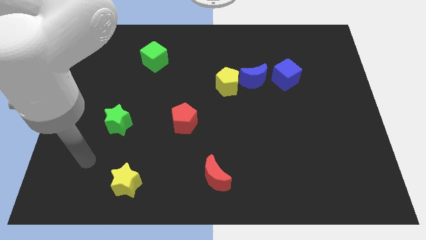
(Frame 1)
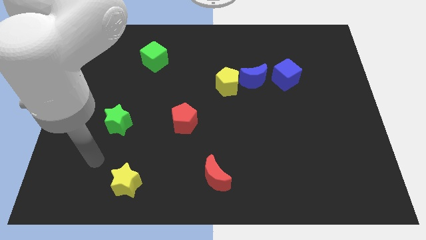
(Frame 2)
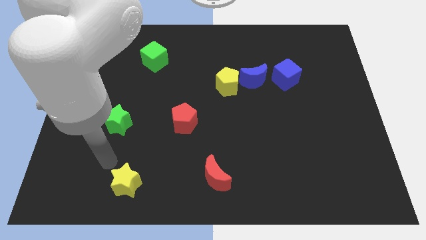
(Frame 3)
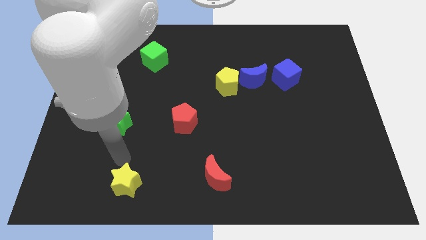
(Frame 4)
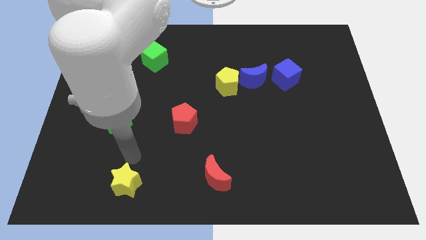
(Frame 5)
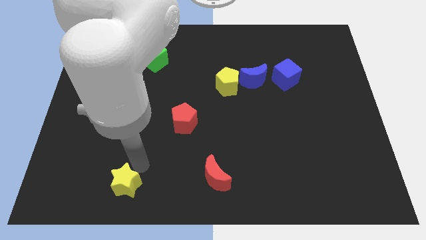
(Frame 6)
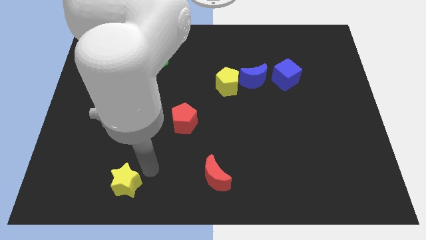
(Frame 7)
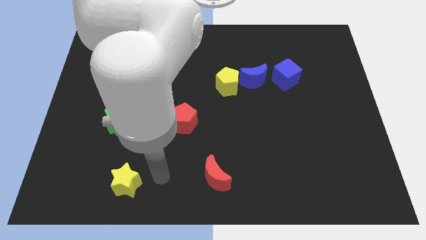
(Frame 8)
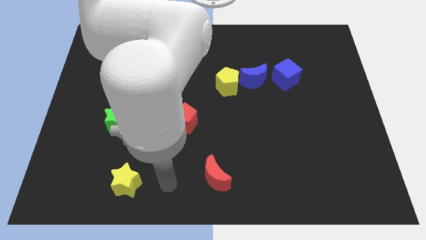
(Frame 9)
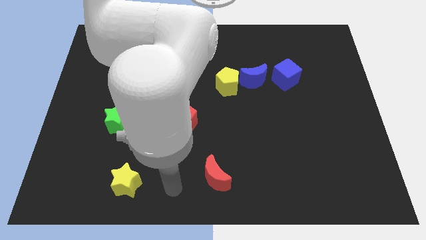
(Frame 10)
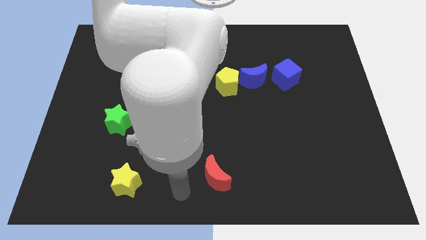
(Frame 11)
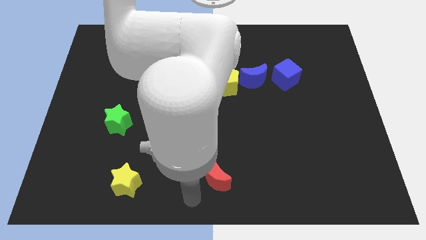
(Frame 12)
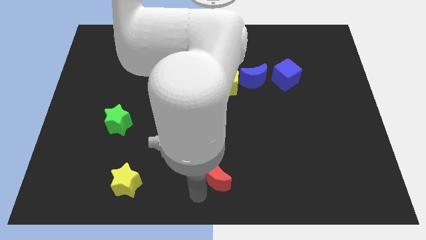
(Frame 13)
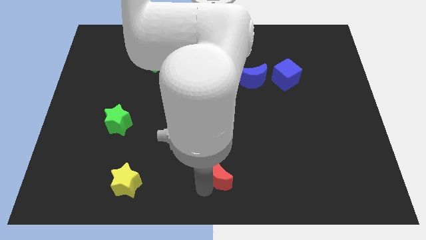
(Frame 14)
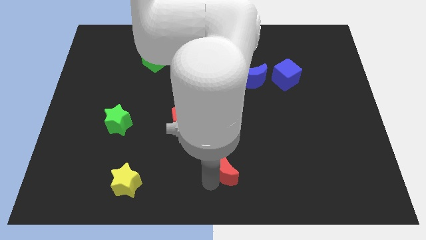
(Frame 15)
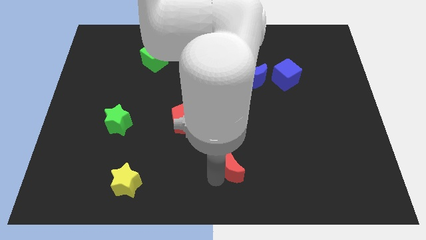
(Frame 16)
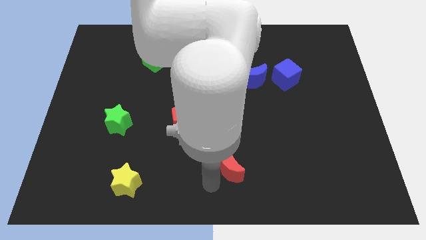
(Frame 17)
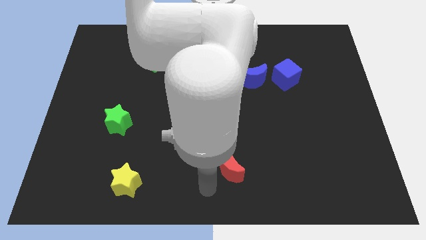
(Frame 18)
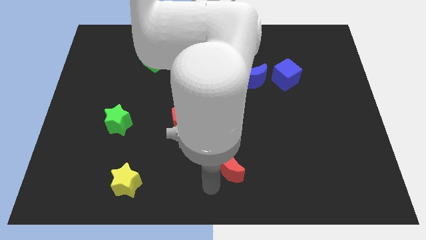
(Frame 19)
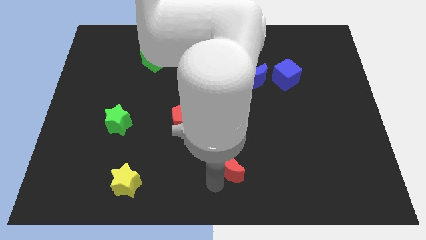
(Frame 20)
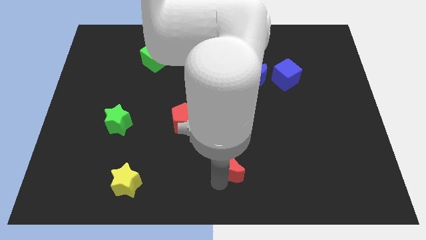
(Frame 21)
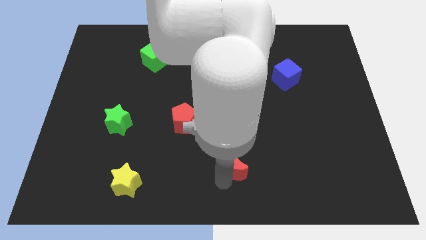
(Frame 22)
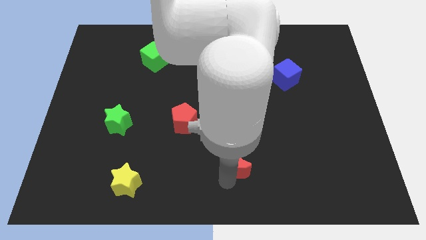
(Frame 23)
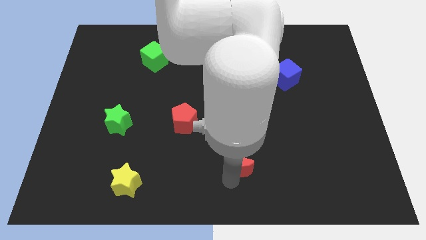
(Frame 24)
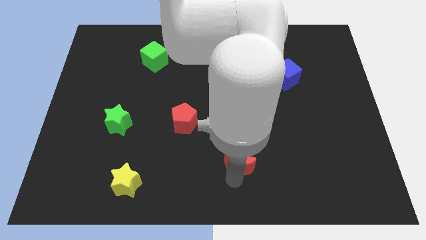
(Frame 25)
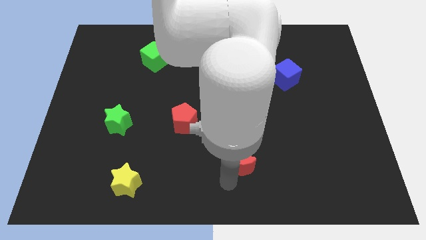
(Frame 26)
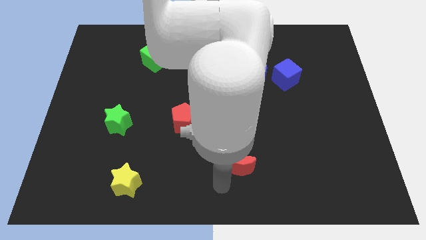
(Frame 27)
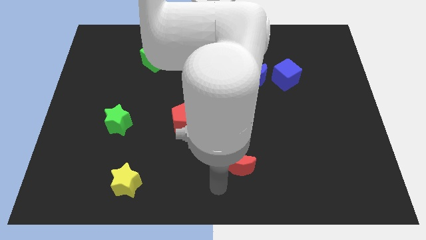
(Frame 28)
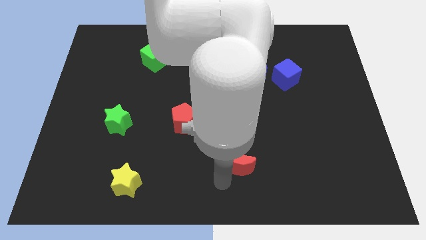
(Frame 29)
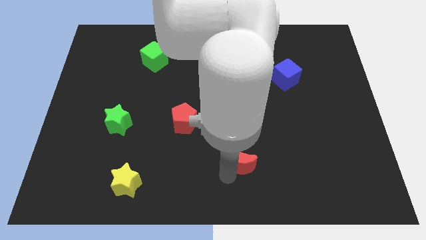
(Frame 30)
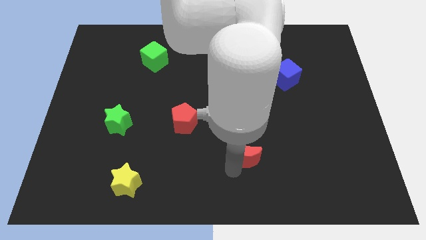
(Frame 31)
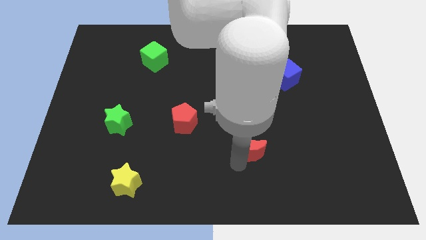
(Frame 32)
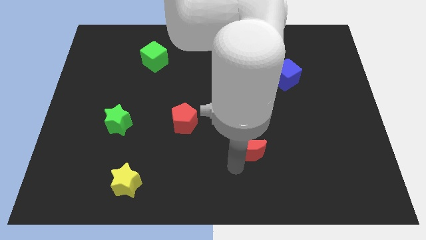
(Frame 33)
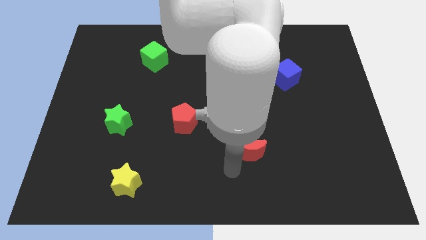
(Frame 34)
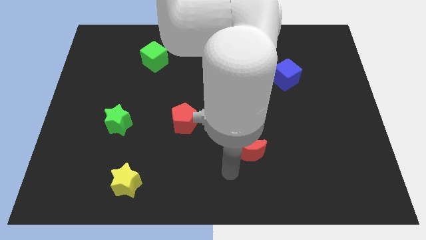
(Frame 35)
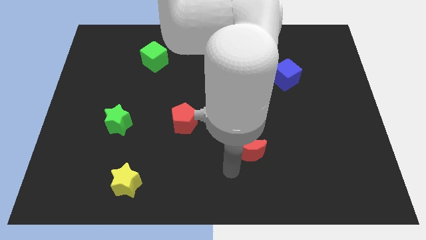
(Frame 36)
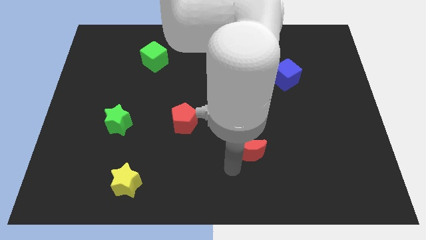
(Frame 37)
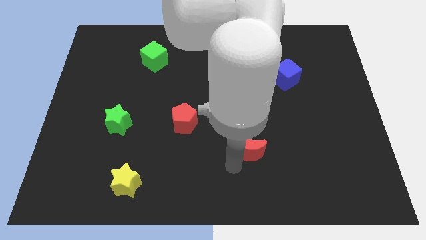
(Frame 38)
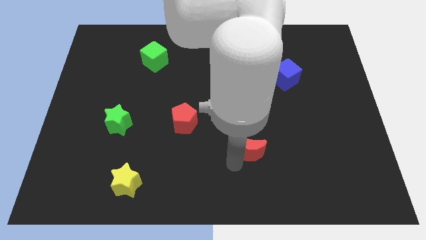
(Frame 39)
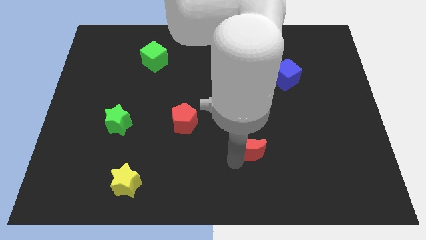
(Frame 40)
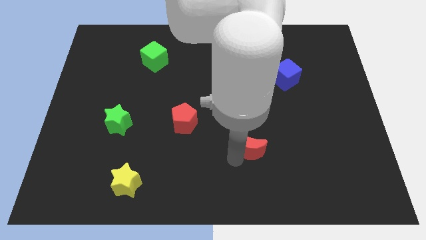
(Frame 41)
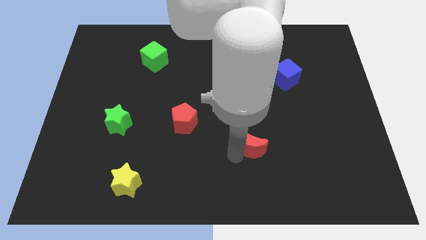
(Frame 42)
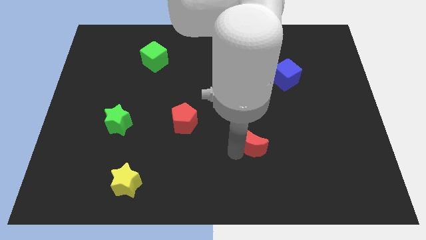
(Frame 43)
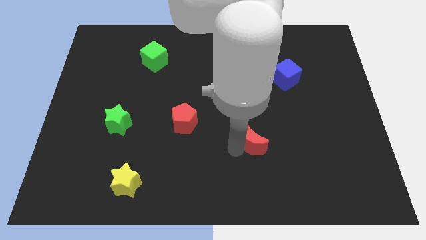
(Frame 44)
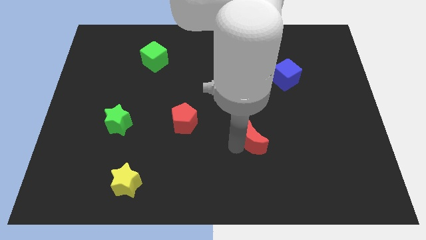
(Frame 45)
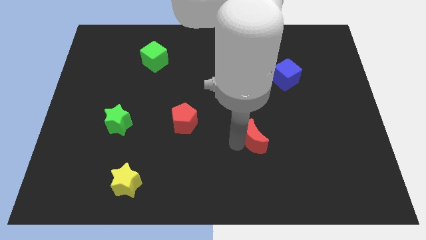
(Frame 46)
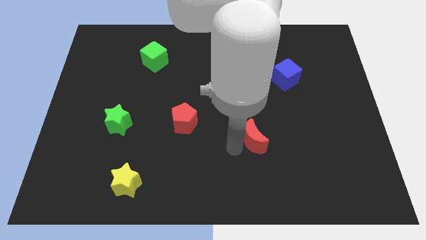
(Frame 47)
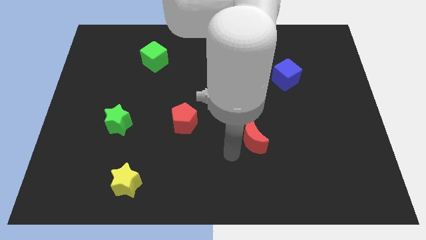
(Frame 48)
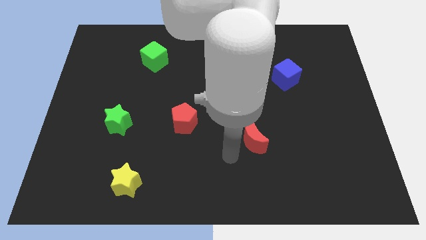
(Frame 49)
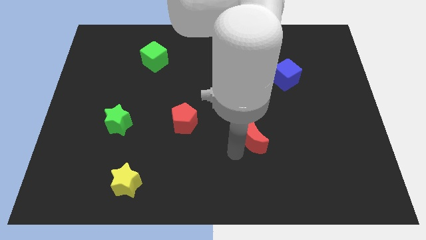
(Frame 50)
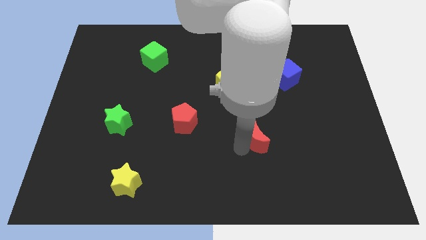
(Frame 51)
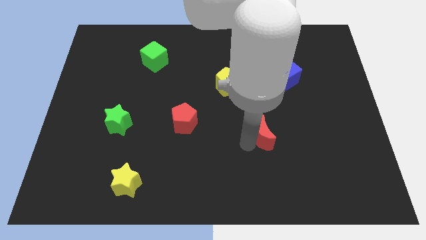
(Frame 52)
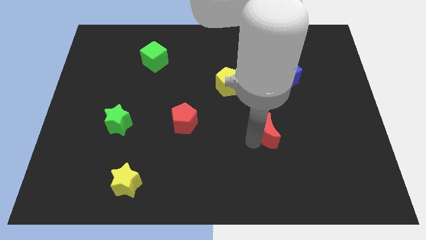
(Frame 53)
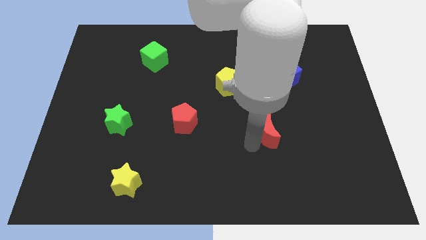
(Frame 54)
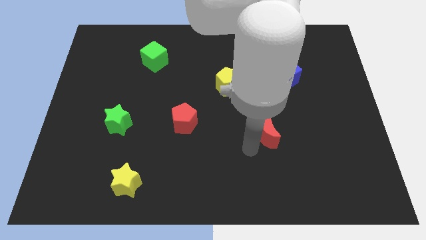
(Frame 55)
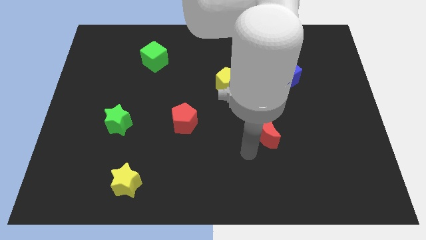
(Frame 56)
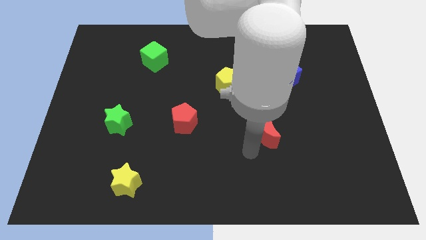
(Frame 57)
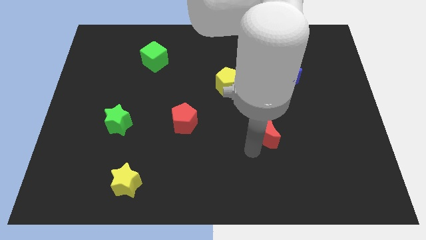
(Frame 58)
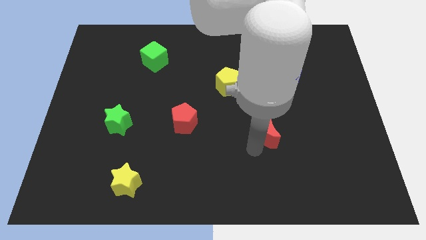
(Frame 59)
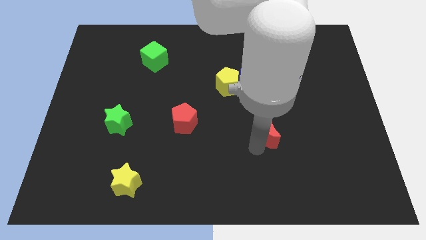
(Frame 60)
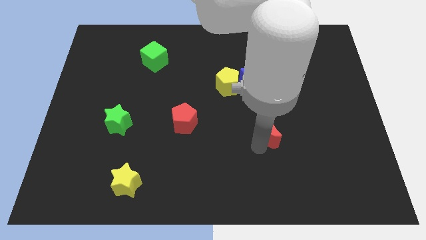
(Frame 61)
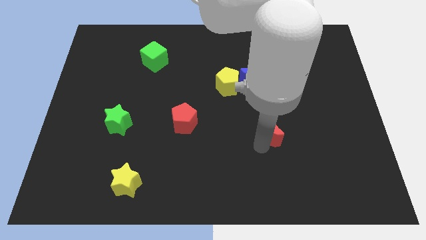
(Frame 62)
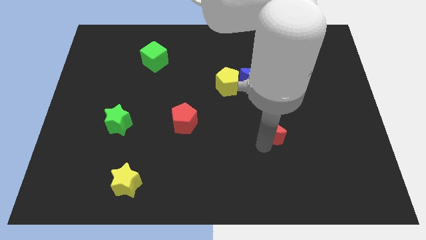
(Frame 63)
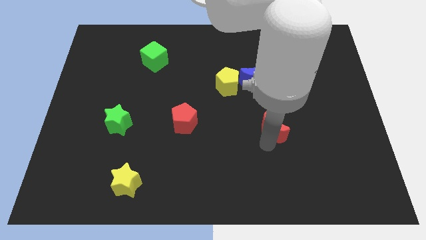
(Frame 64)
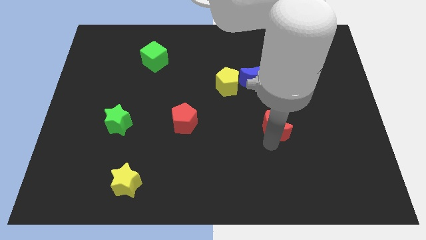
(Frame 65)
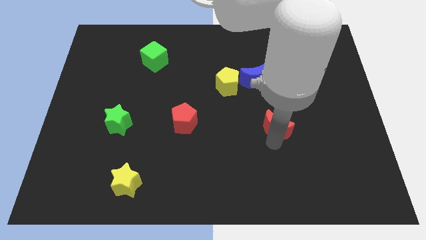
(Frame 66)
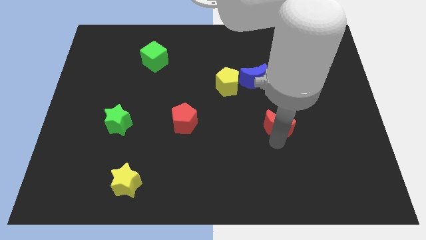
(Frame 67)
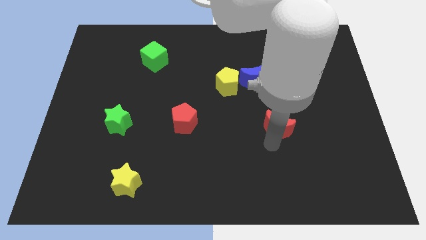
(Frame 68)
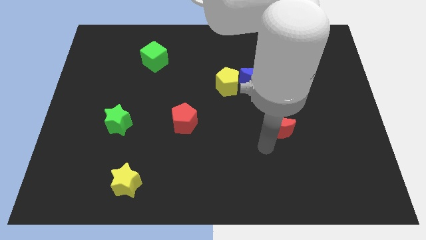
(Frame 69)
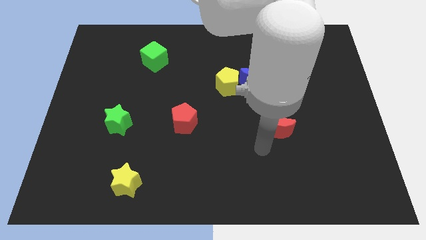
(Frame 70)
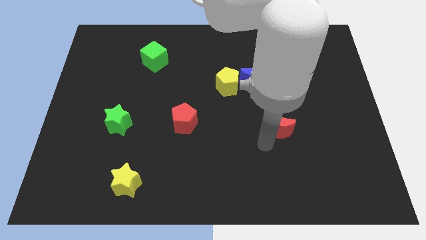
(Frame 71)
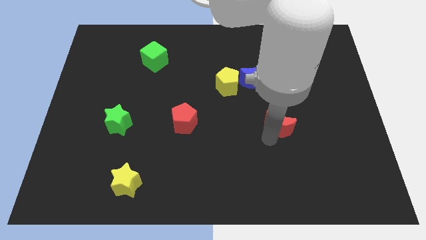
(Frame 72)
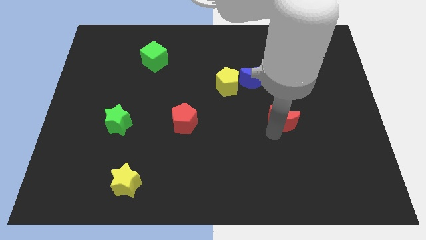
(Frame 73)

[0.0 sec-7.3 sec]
push the red moon diagonally upwards and right

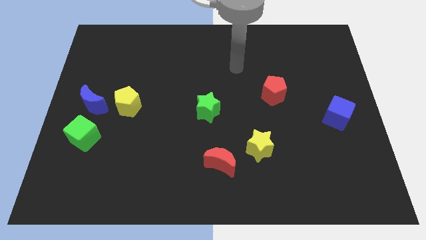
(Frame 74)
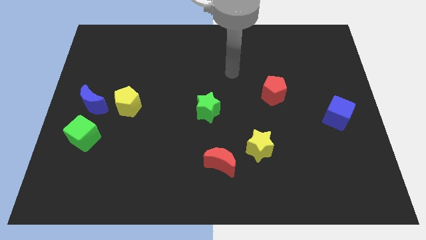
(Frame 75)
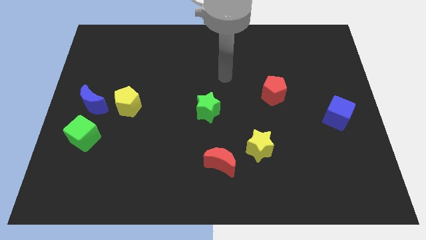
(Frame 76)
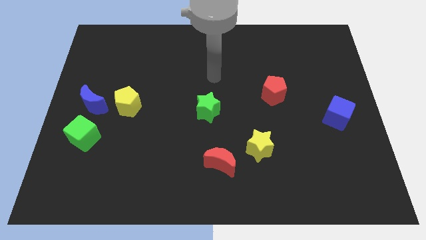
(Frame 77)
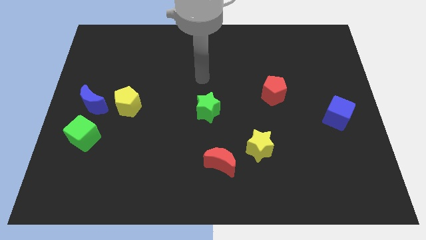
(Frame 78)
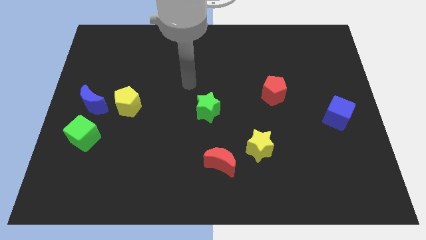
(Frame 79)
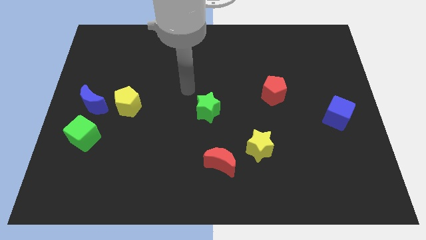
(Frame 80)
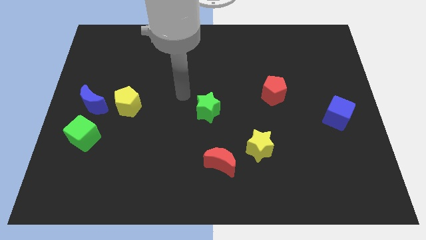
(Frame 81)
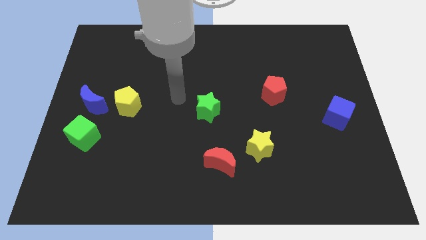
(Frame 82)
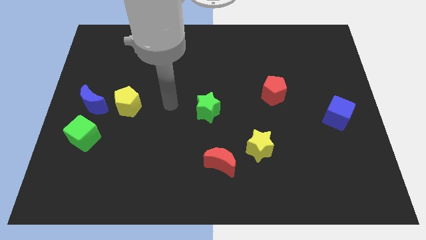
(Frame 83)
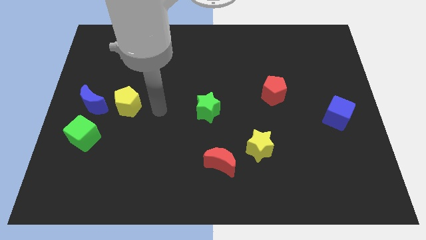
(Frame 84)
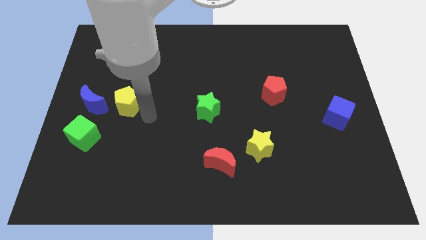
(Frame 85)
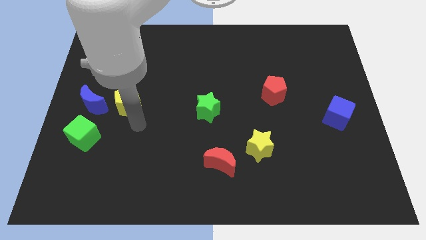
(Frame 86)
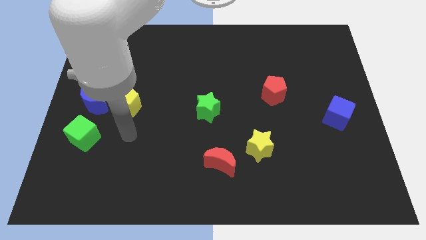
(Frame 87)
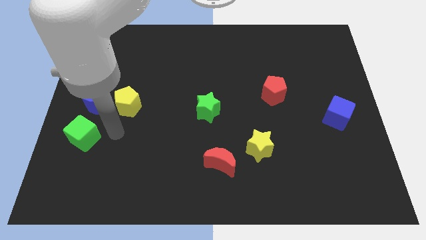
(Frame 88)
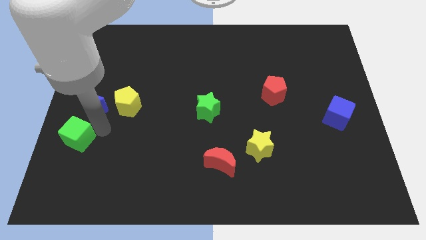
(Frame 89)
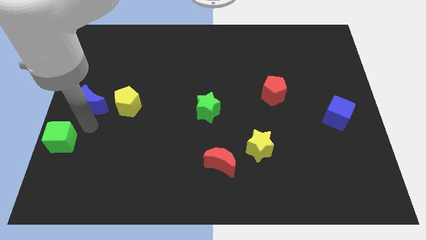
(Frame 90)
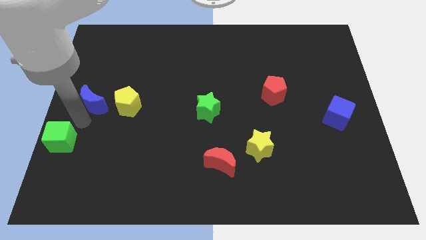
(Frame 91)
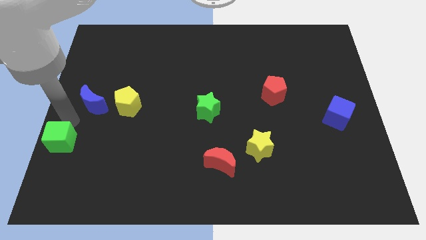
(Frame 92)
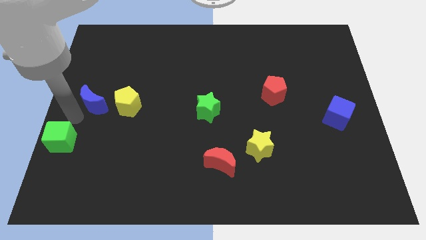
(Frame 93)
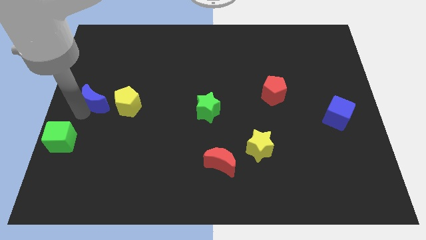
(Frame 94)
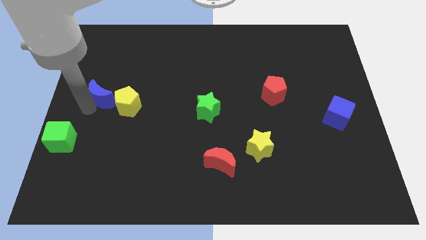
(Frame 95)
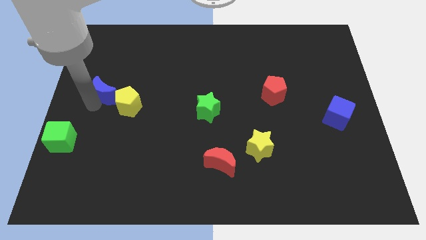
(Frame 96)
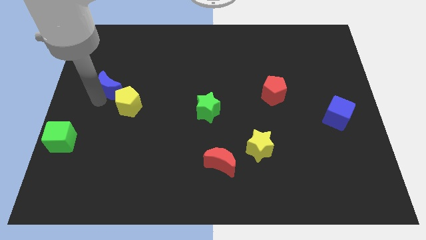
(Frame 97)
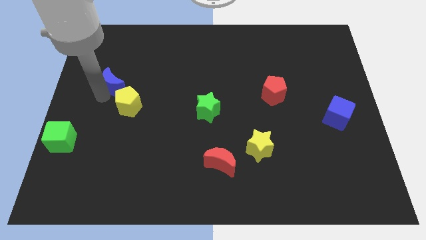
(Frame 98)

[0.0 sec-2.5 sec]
slightly move the blue moon up and right diagonally
